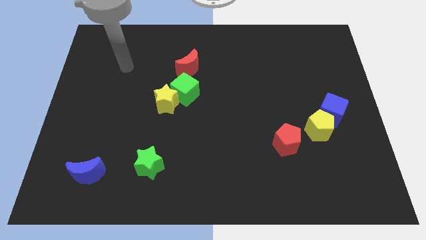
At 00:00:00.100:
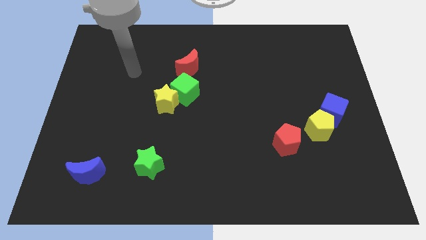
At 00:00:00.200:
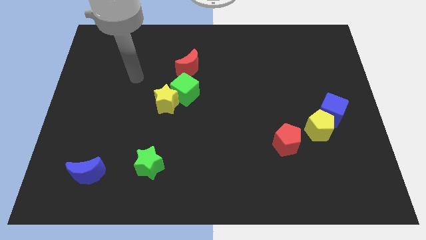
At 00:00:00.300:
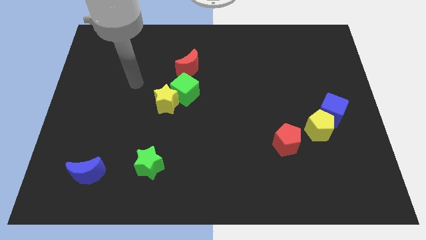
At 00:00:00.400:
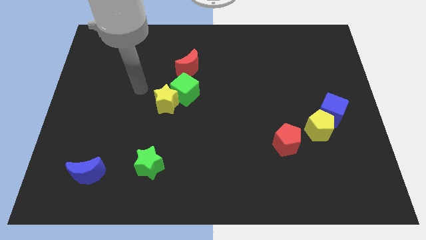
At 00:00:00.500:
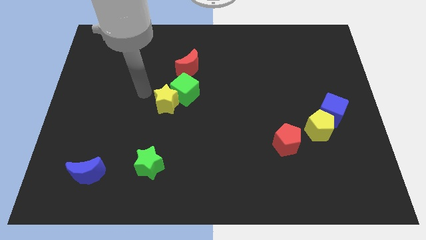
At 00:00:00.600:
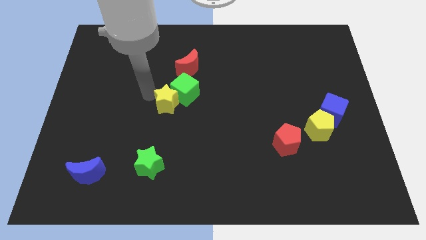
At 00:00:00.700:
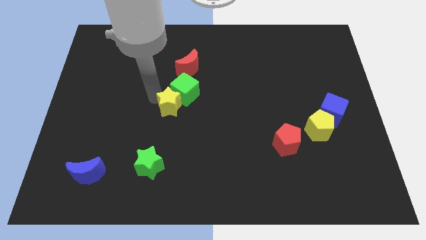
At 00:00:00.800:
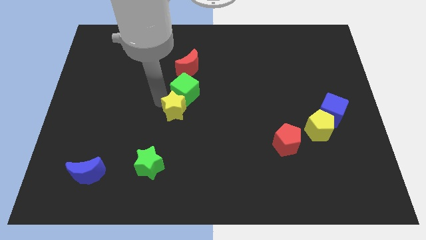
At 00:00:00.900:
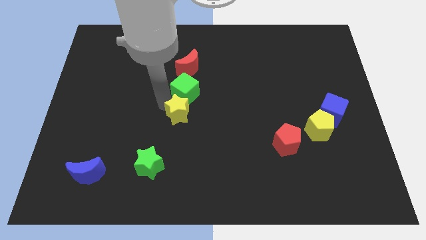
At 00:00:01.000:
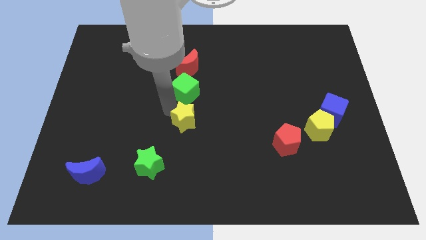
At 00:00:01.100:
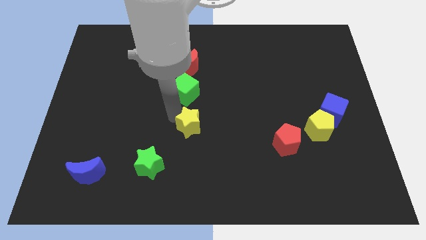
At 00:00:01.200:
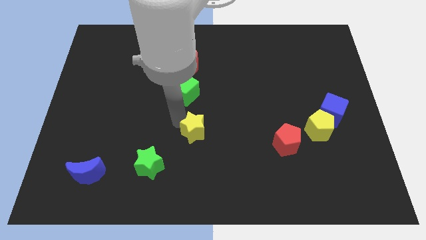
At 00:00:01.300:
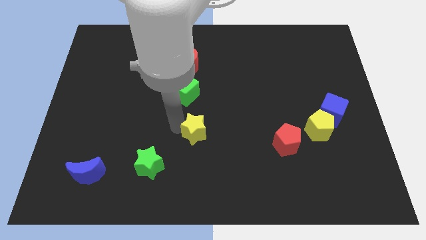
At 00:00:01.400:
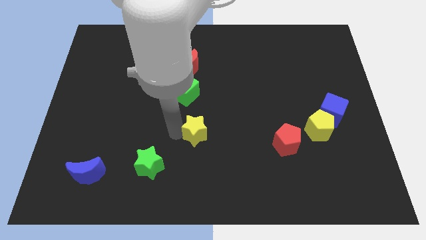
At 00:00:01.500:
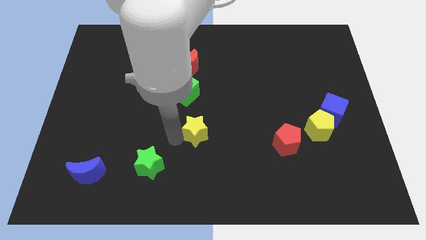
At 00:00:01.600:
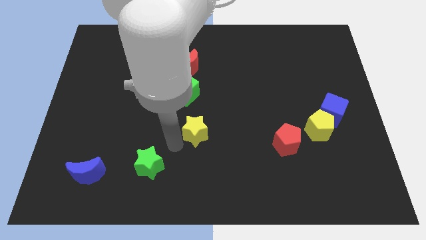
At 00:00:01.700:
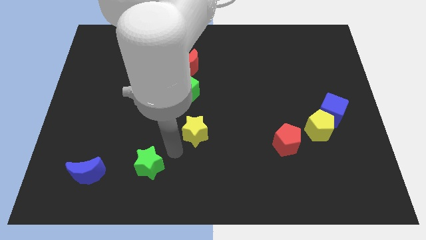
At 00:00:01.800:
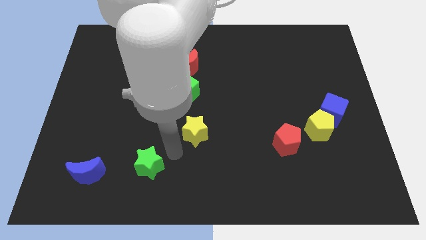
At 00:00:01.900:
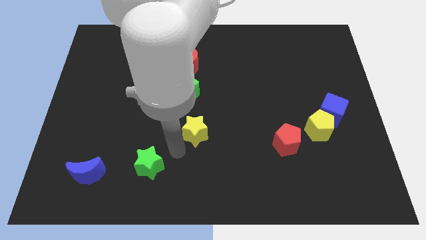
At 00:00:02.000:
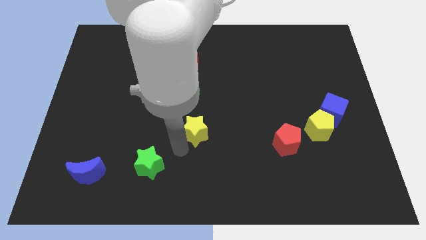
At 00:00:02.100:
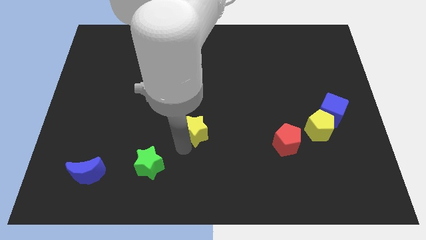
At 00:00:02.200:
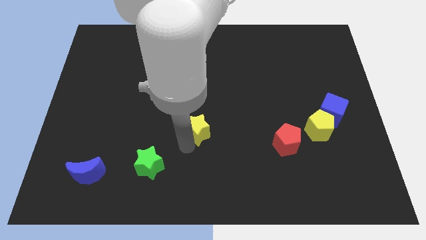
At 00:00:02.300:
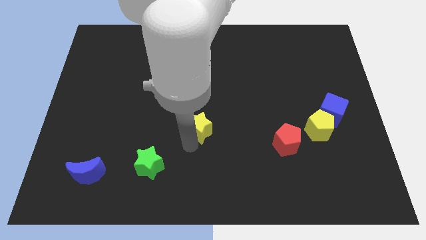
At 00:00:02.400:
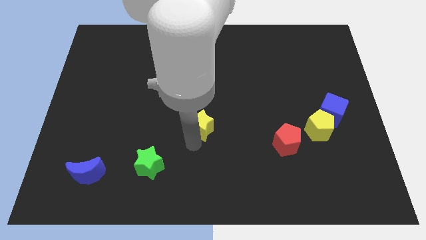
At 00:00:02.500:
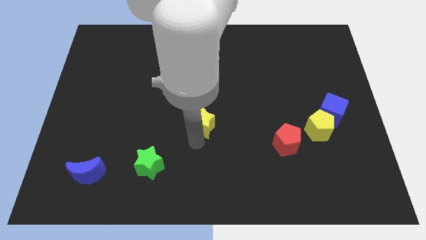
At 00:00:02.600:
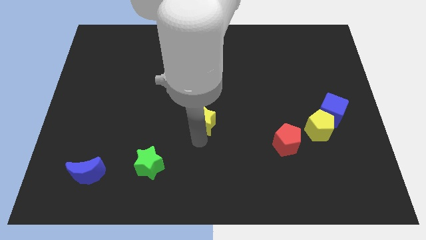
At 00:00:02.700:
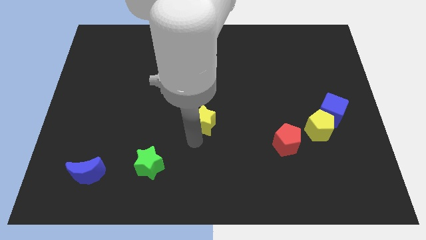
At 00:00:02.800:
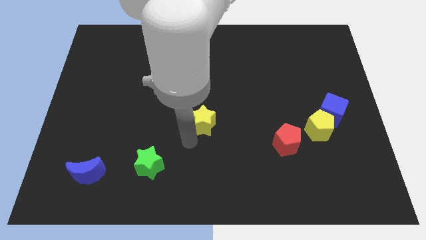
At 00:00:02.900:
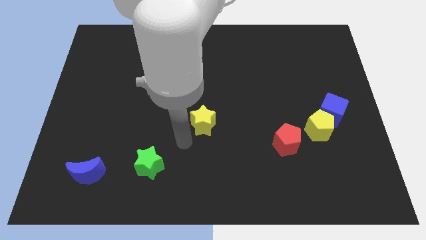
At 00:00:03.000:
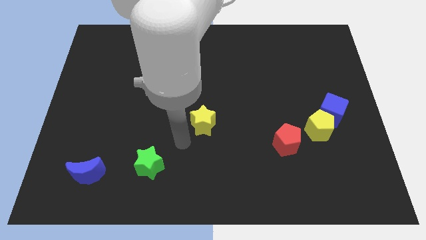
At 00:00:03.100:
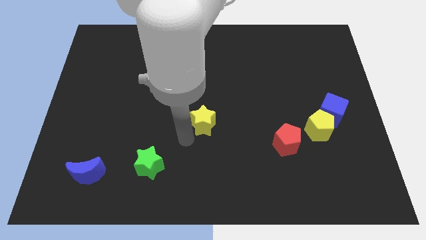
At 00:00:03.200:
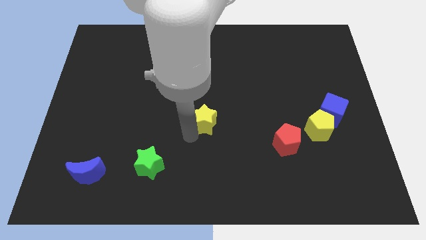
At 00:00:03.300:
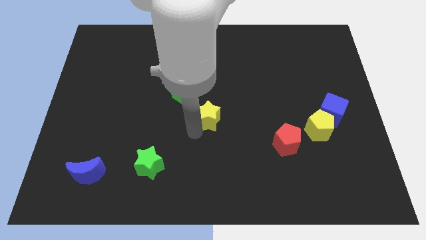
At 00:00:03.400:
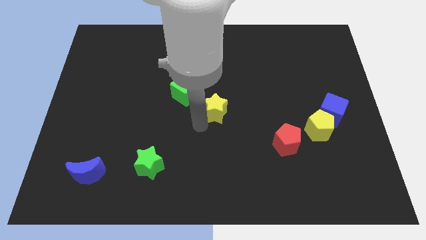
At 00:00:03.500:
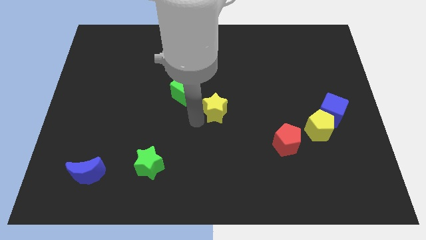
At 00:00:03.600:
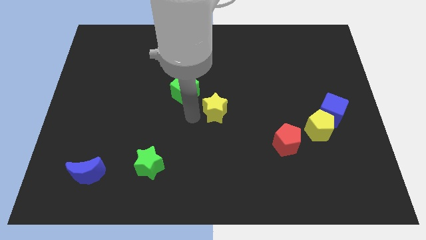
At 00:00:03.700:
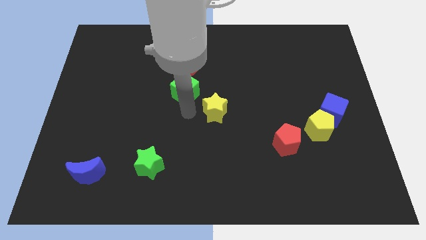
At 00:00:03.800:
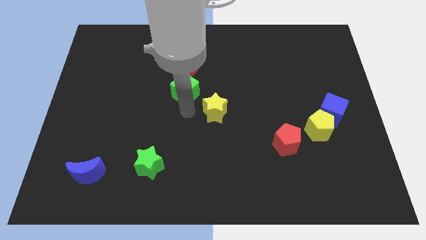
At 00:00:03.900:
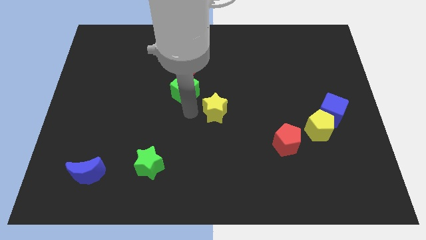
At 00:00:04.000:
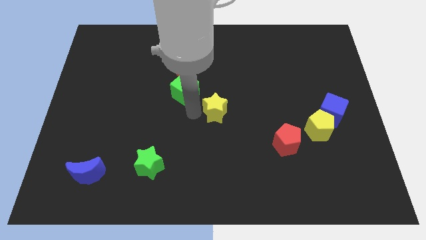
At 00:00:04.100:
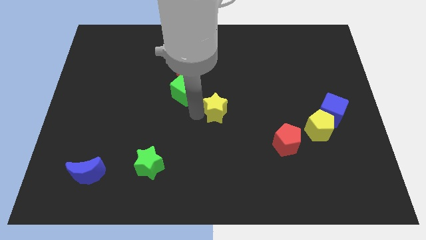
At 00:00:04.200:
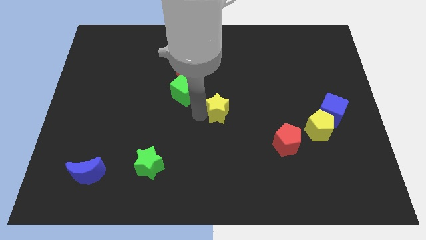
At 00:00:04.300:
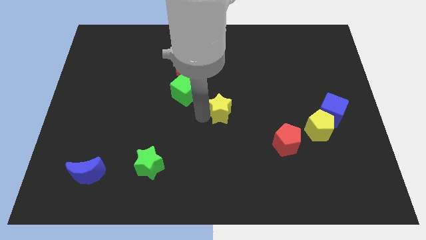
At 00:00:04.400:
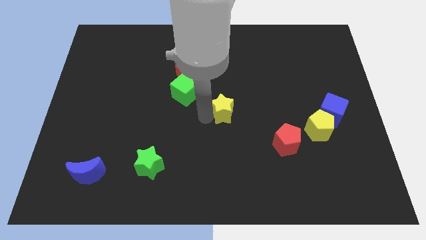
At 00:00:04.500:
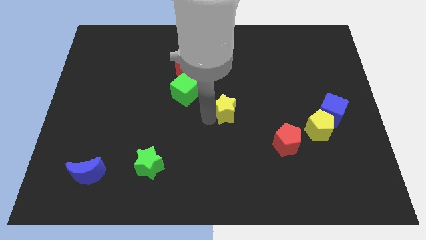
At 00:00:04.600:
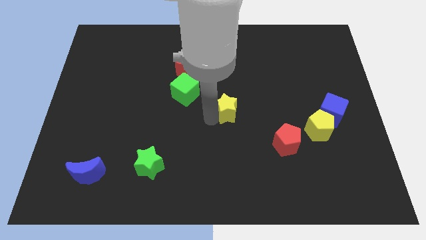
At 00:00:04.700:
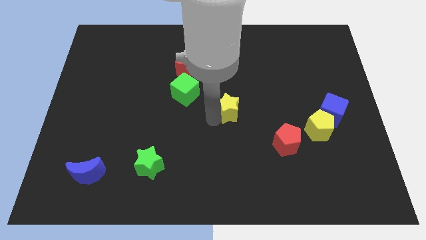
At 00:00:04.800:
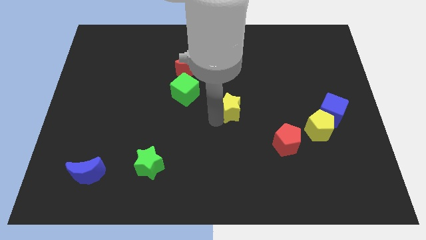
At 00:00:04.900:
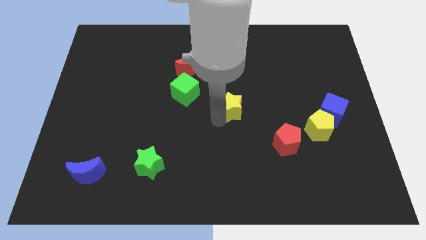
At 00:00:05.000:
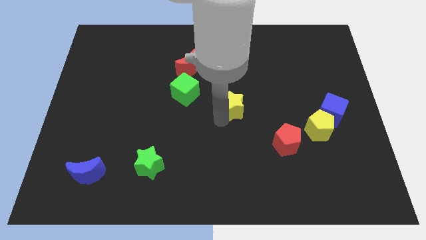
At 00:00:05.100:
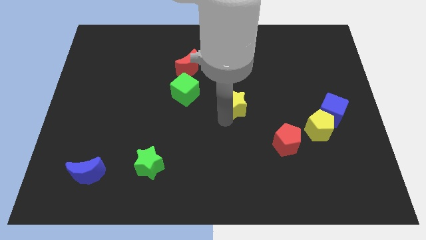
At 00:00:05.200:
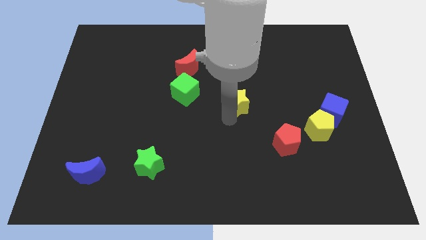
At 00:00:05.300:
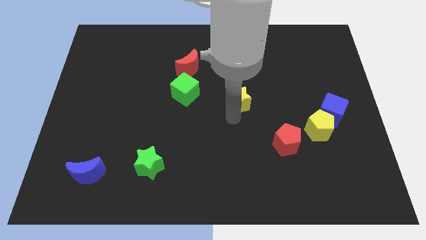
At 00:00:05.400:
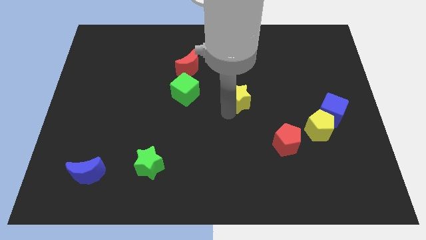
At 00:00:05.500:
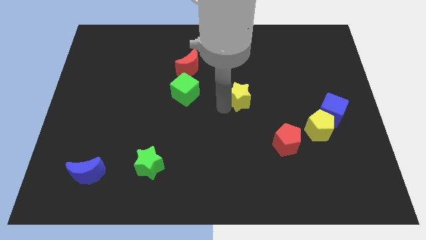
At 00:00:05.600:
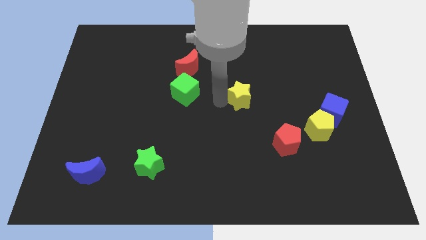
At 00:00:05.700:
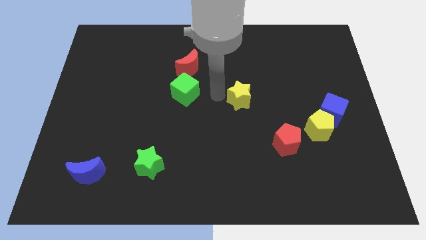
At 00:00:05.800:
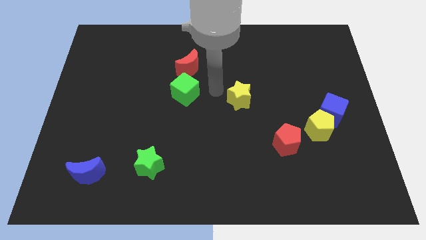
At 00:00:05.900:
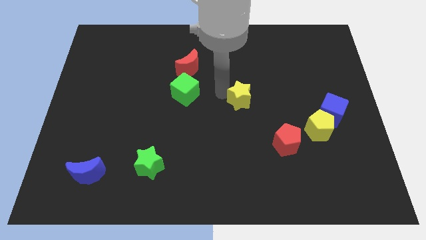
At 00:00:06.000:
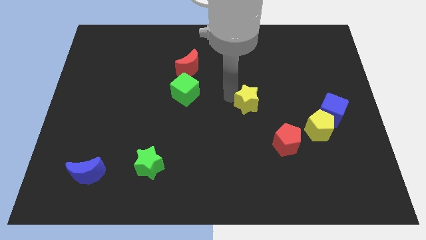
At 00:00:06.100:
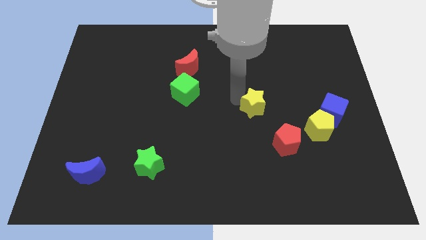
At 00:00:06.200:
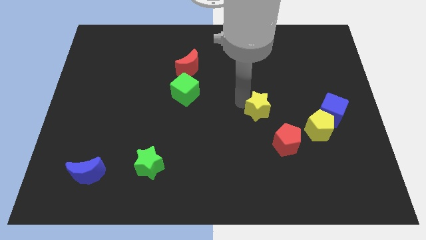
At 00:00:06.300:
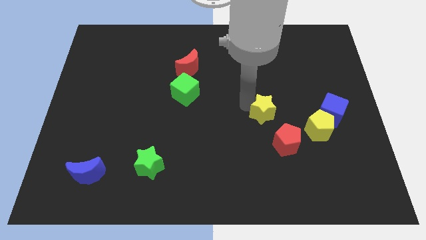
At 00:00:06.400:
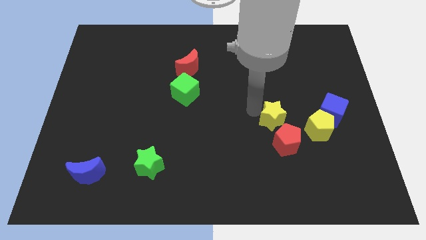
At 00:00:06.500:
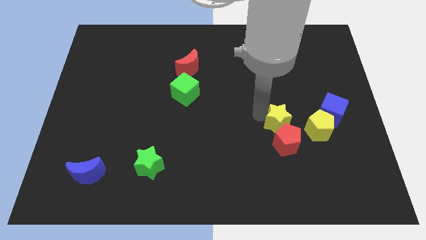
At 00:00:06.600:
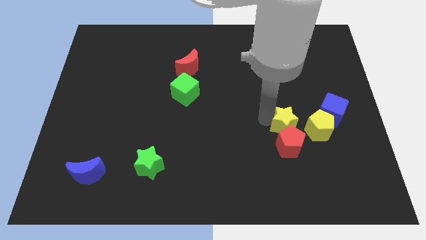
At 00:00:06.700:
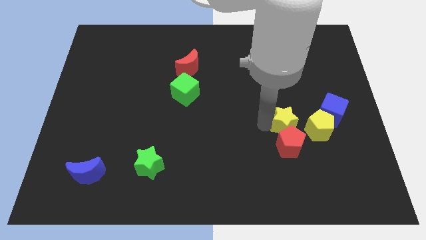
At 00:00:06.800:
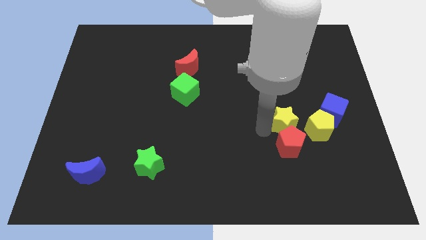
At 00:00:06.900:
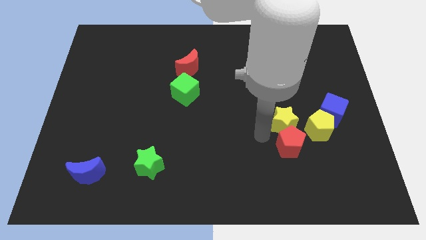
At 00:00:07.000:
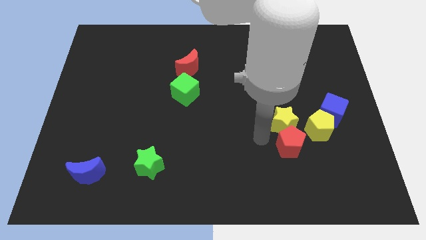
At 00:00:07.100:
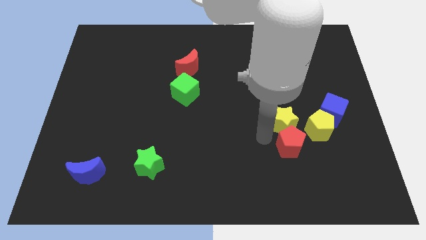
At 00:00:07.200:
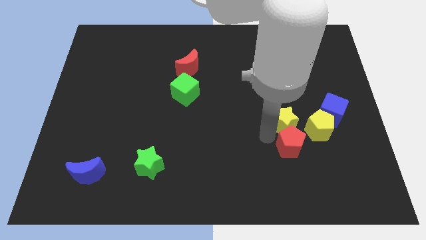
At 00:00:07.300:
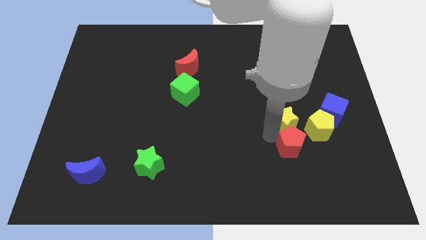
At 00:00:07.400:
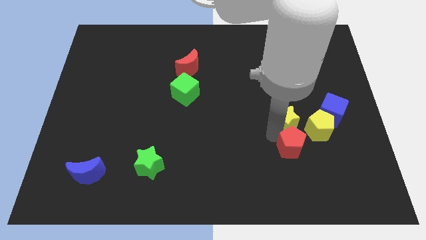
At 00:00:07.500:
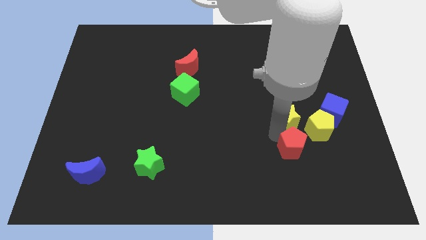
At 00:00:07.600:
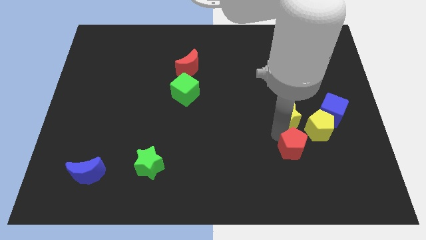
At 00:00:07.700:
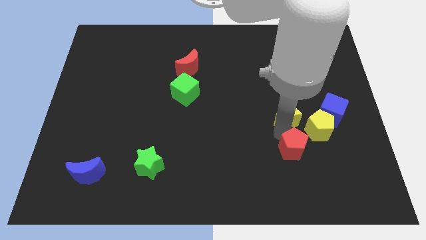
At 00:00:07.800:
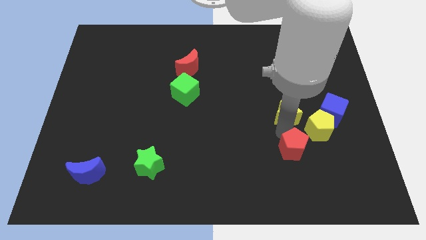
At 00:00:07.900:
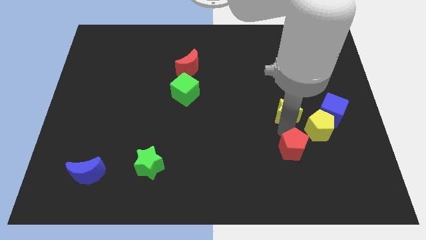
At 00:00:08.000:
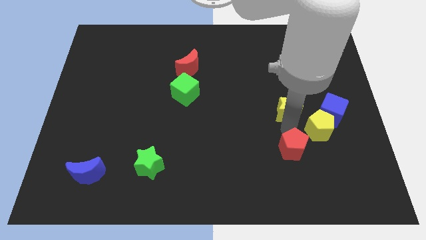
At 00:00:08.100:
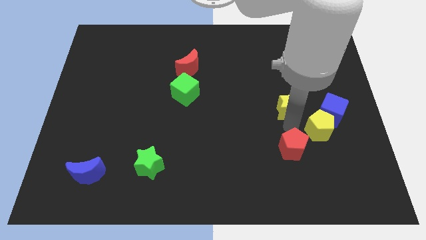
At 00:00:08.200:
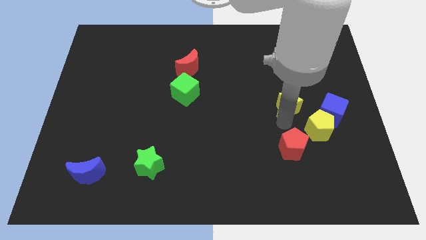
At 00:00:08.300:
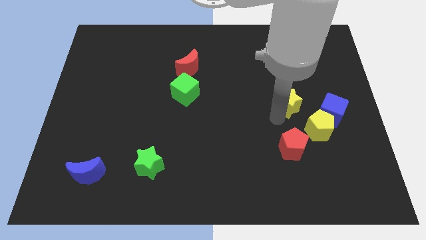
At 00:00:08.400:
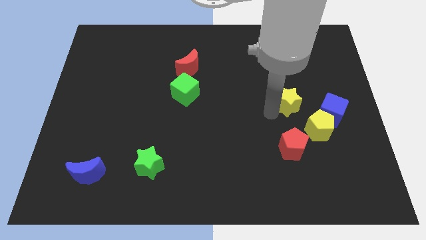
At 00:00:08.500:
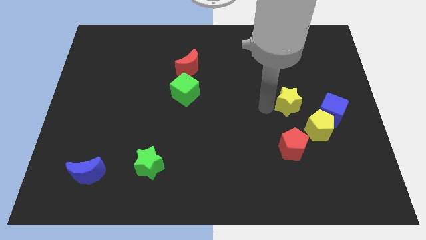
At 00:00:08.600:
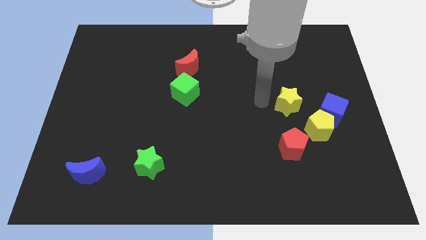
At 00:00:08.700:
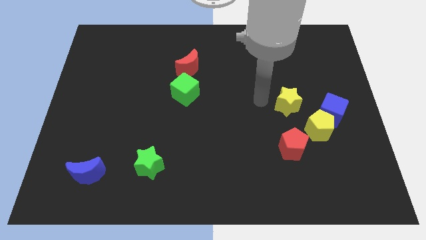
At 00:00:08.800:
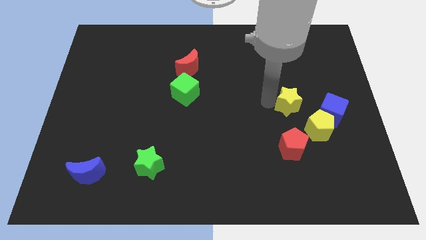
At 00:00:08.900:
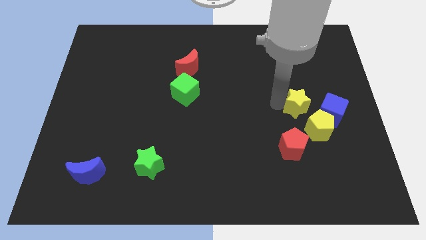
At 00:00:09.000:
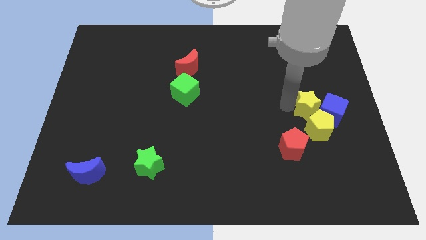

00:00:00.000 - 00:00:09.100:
put the yellow star close to the blue cube
